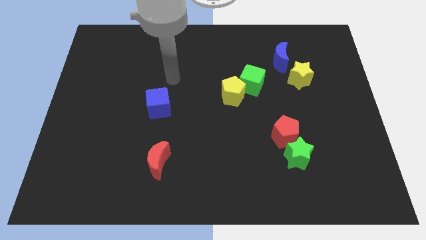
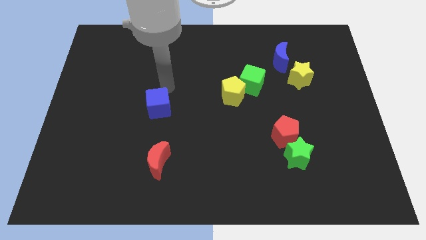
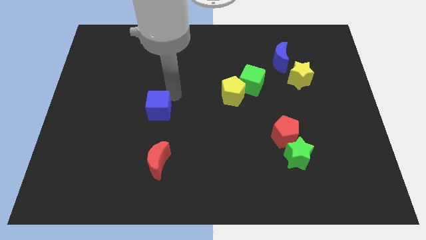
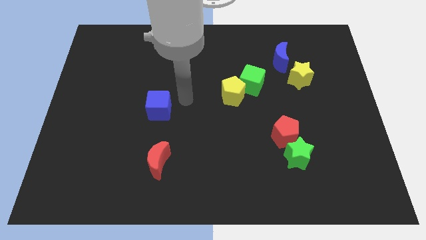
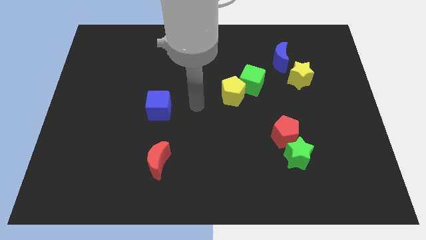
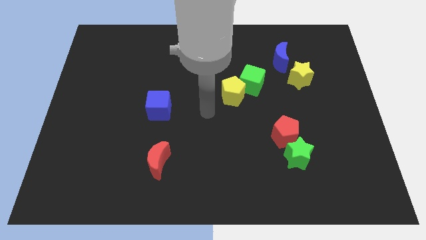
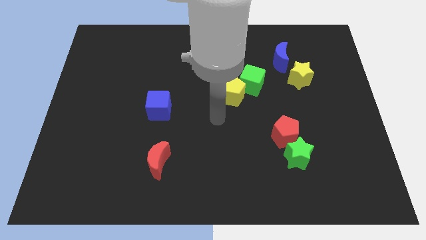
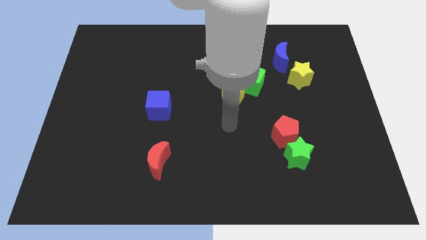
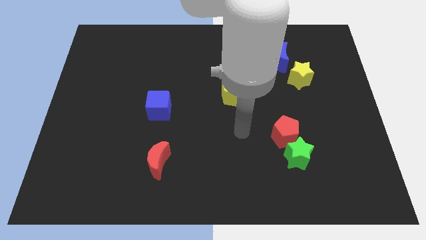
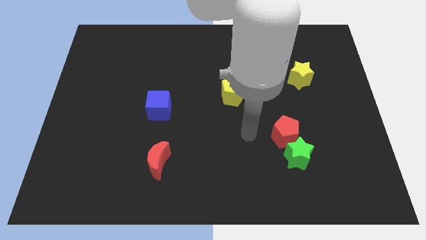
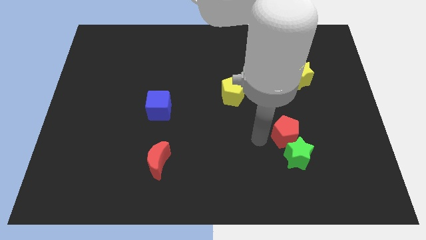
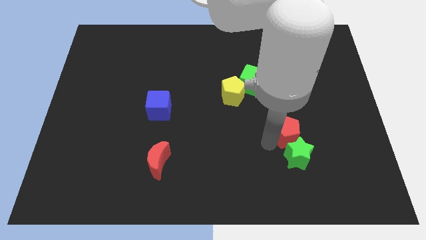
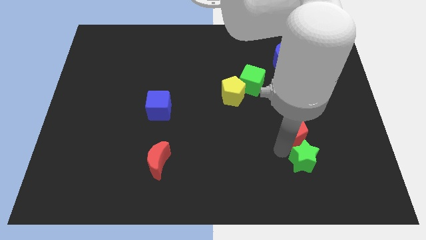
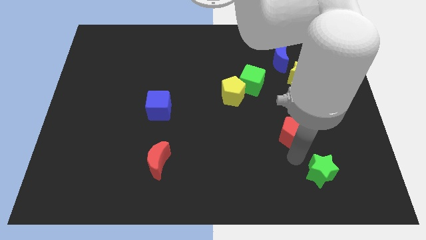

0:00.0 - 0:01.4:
pull the red pentagon apart from the green star

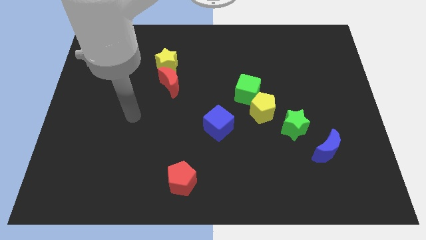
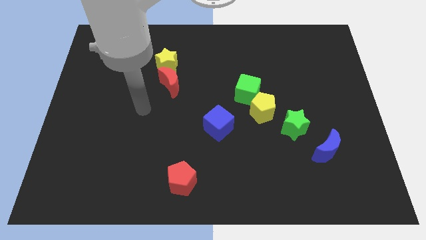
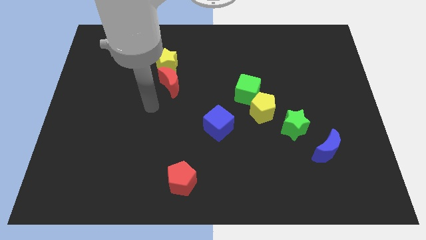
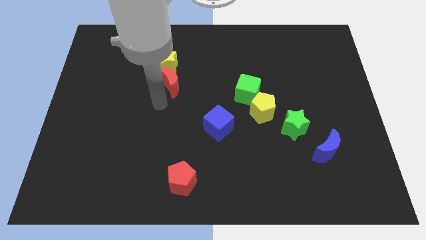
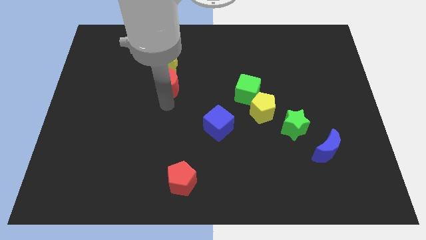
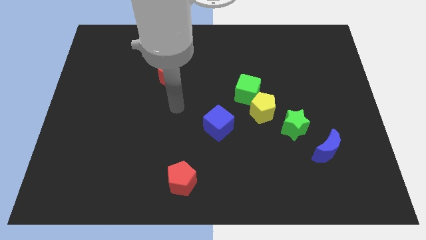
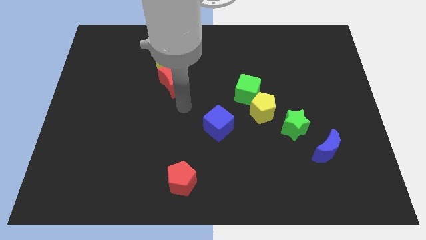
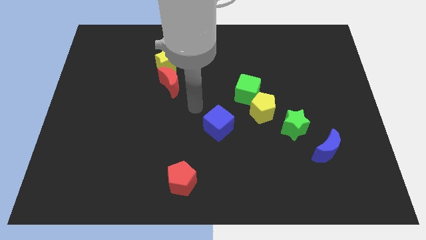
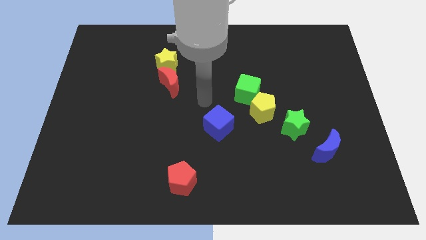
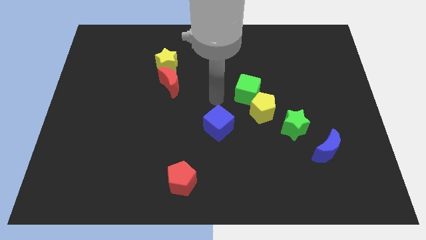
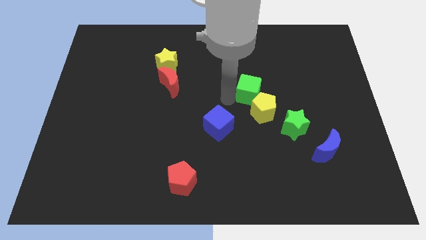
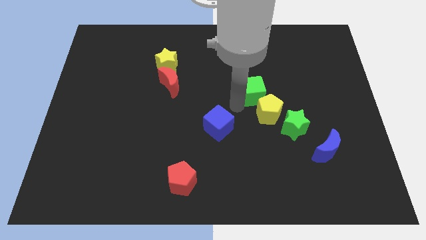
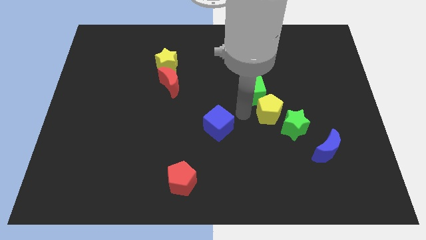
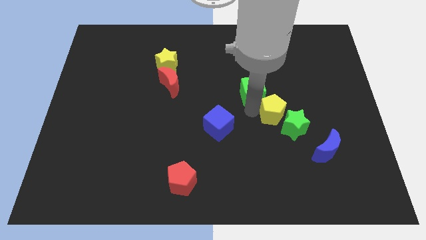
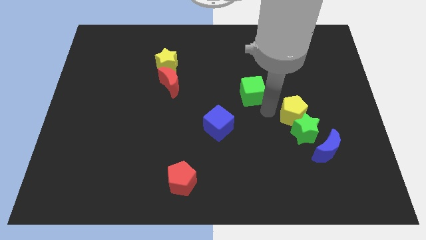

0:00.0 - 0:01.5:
move the green cube away from the yellow pentagon

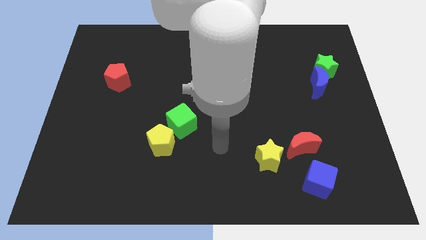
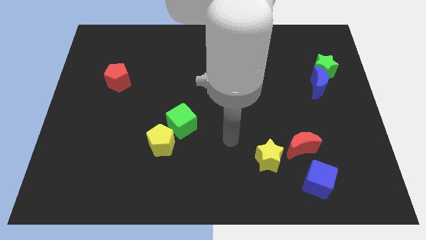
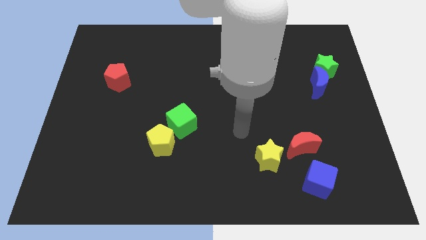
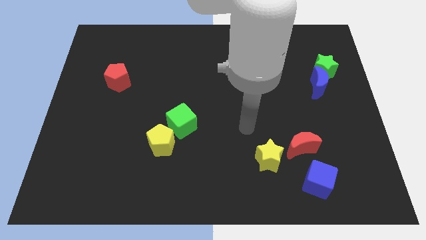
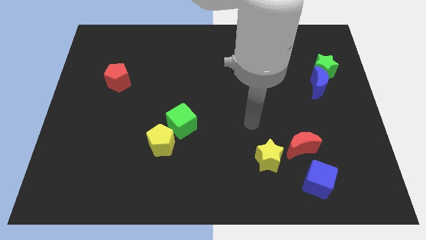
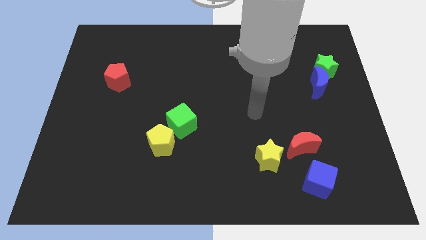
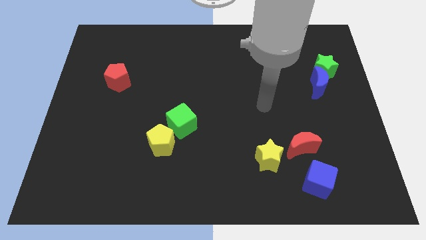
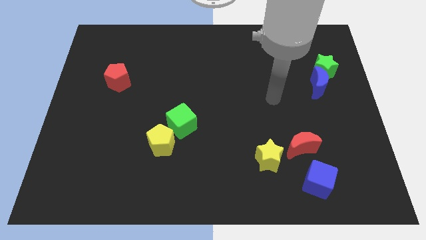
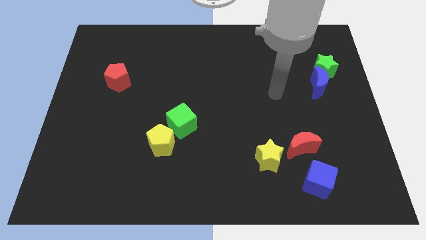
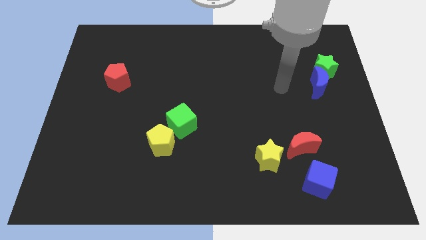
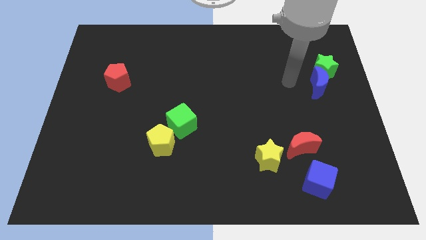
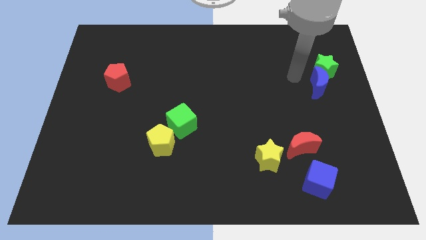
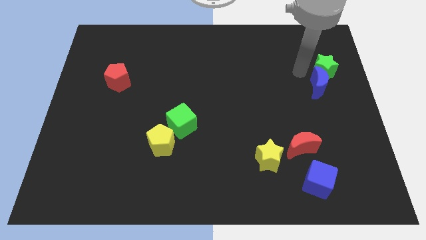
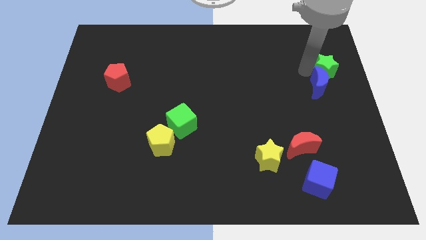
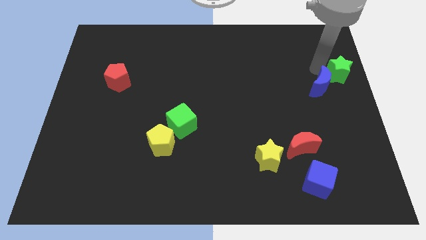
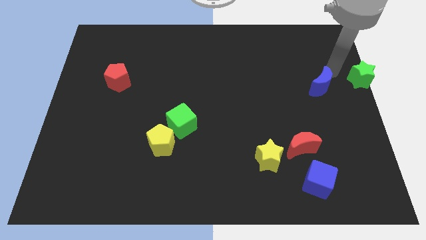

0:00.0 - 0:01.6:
separate the blue moon from the green star

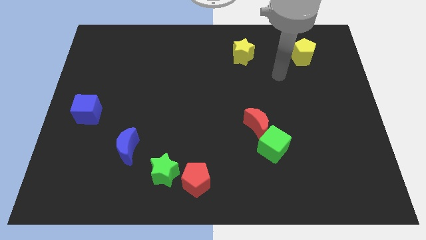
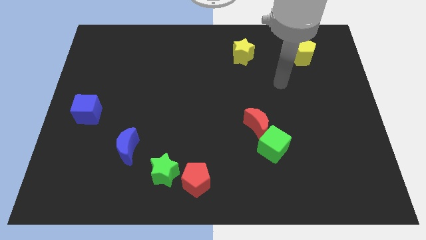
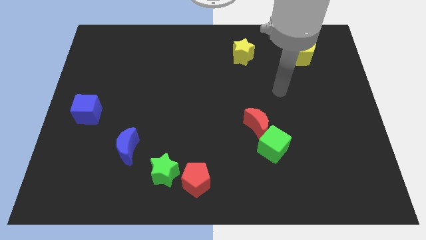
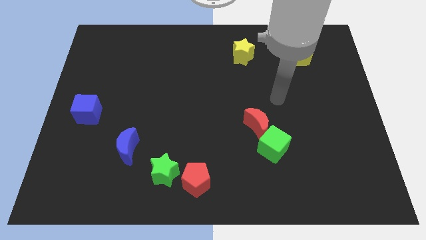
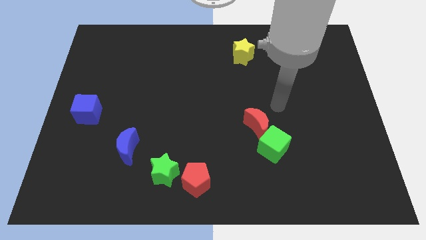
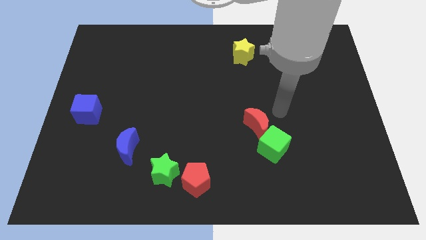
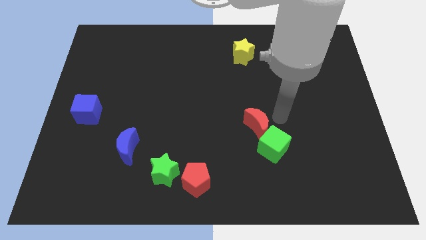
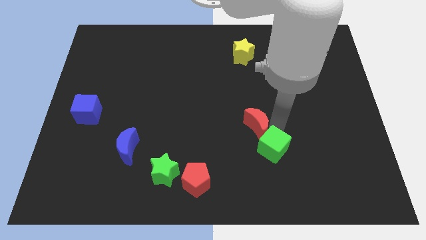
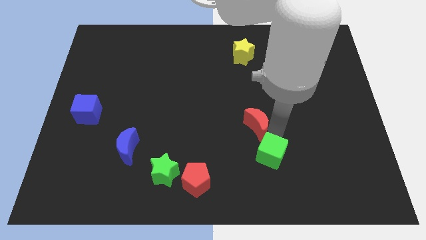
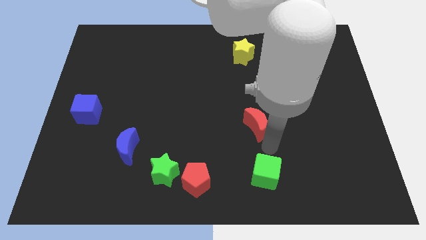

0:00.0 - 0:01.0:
separate the red moon from the green cube

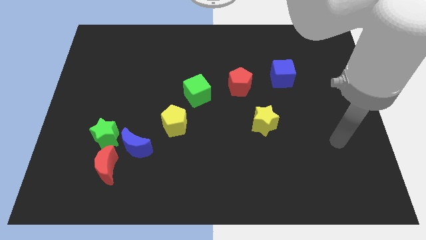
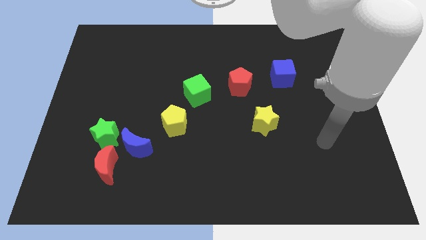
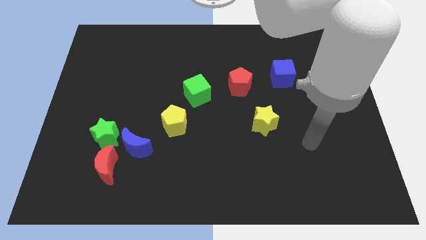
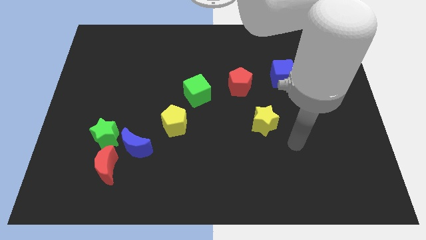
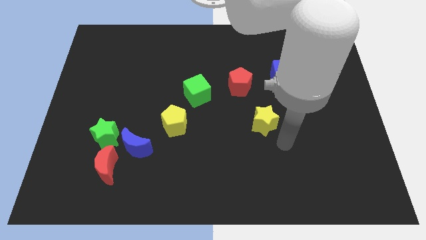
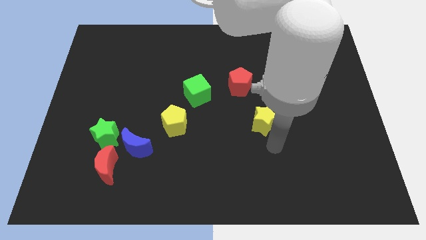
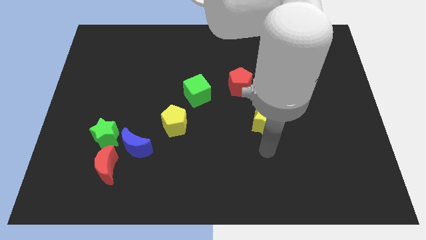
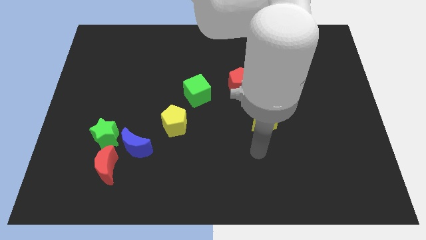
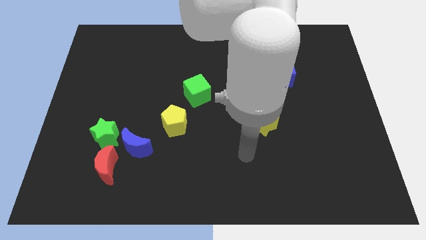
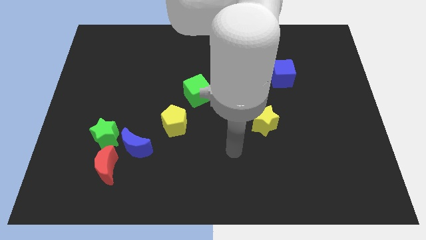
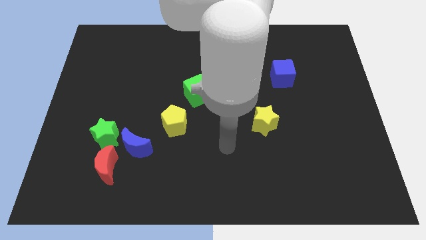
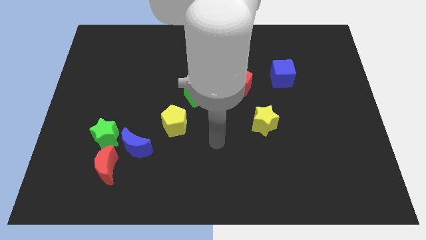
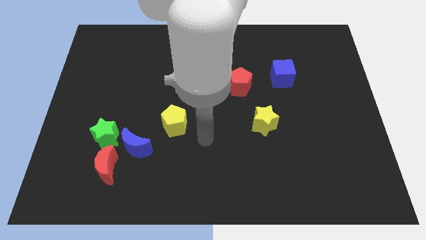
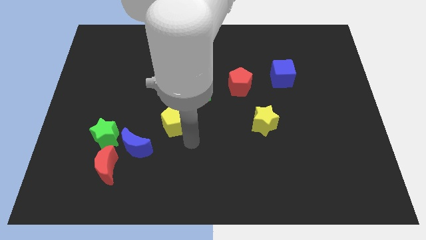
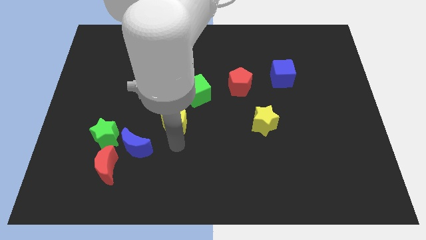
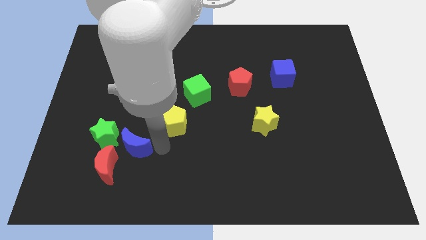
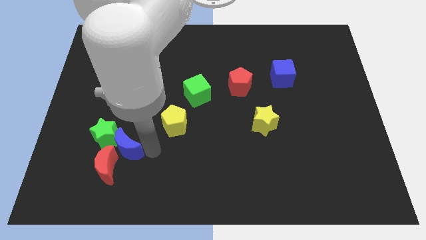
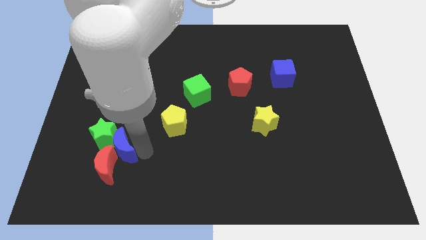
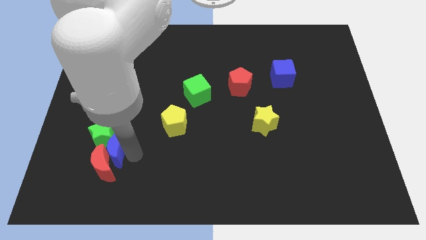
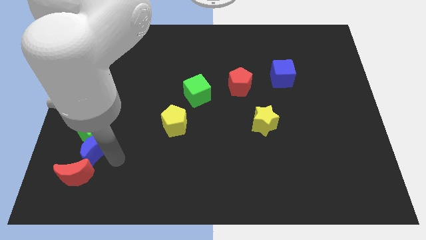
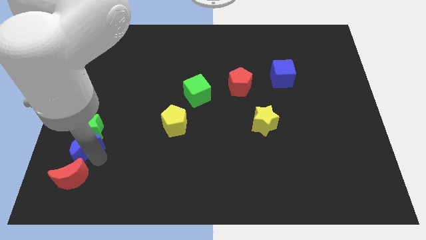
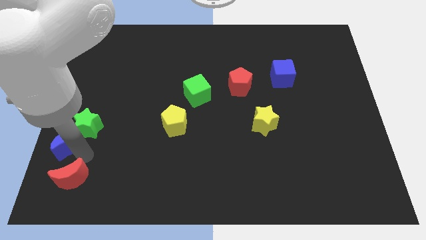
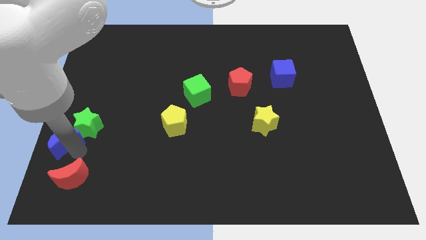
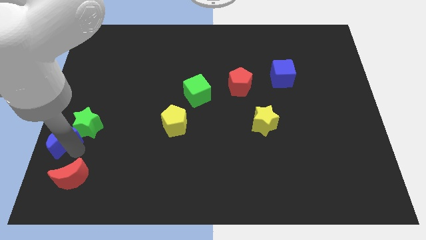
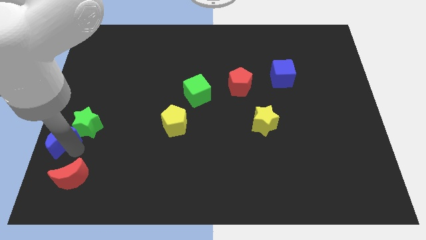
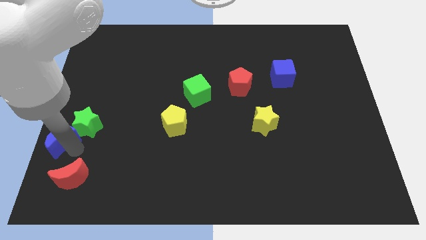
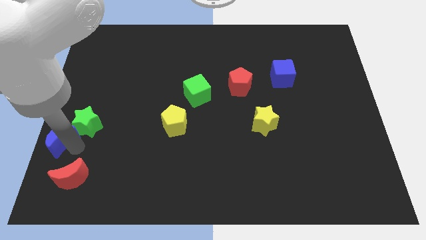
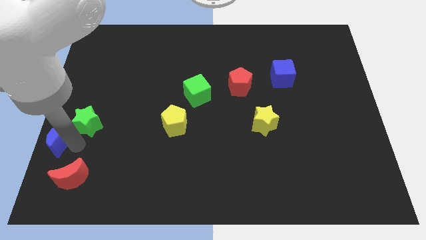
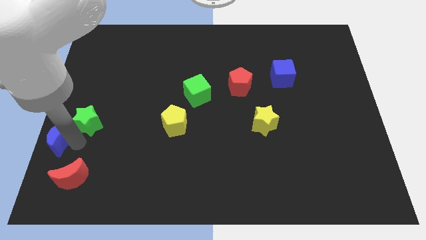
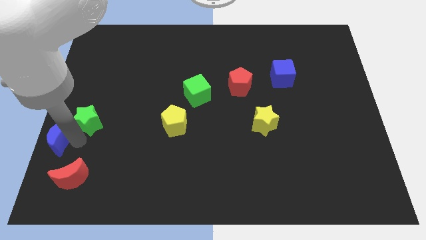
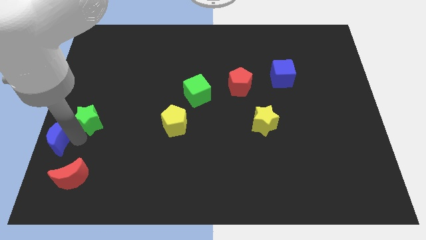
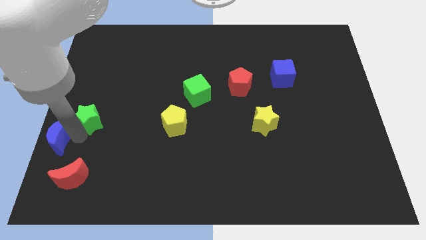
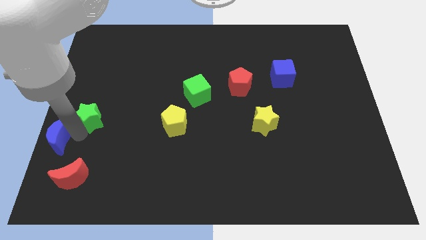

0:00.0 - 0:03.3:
separate the green star from the blue moon and red moon

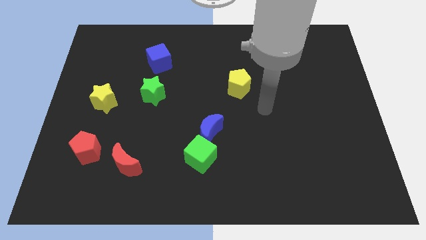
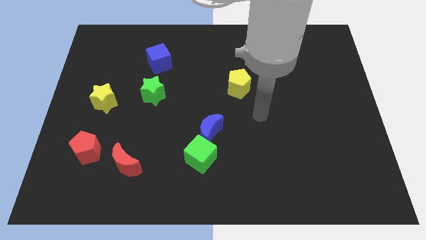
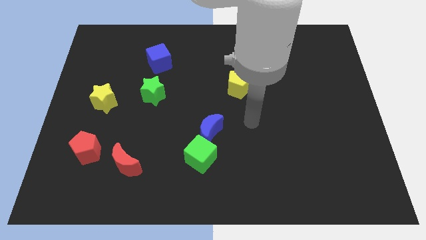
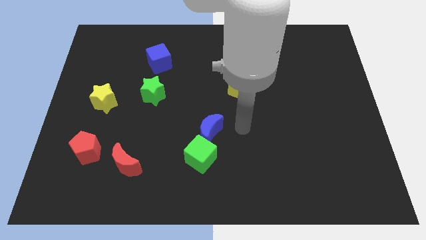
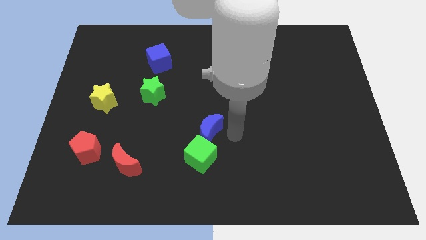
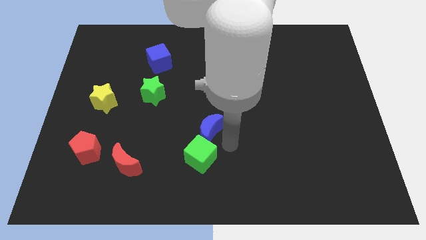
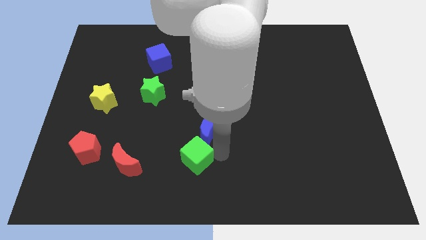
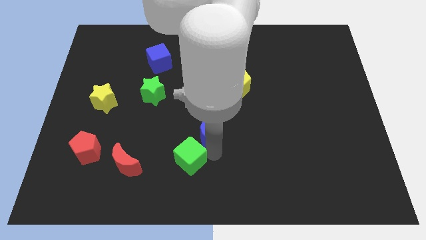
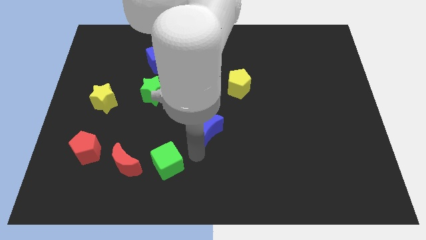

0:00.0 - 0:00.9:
pull the blue moon apart from the green cube
